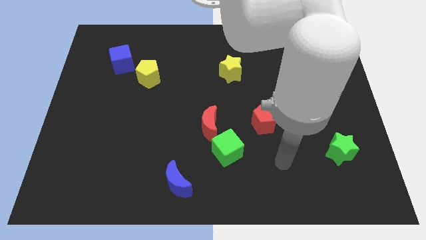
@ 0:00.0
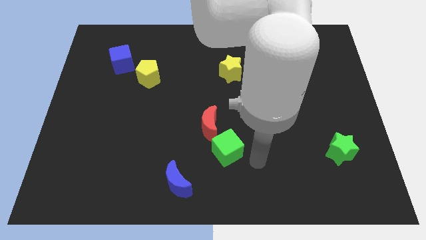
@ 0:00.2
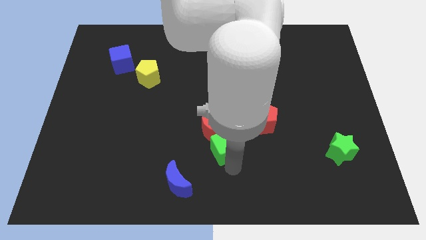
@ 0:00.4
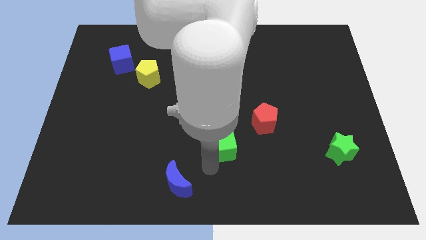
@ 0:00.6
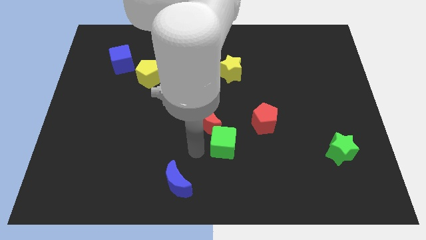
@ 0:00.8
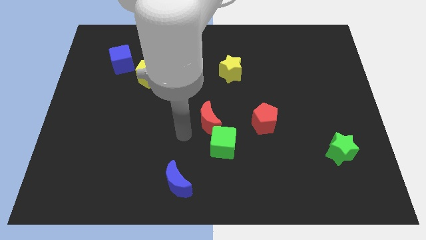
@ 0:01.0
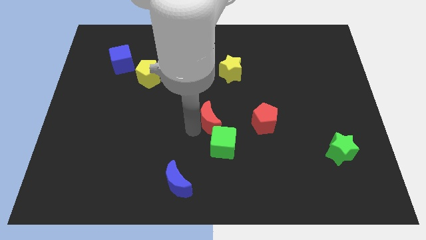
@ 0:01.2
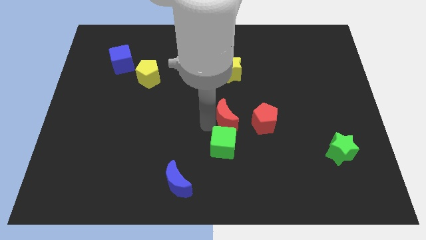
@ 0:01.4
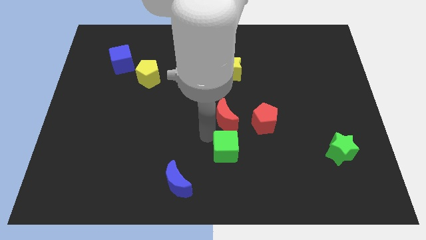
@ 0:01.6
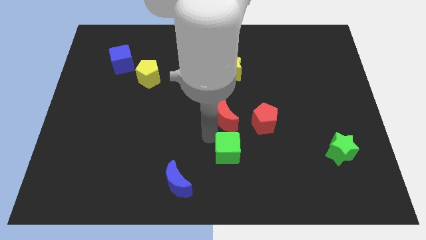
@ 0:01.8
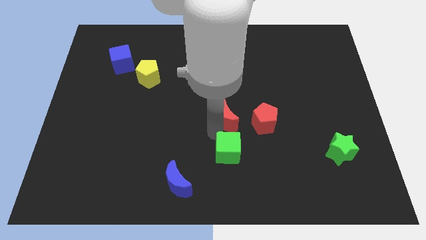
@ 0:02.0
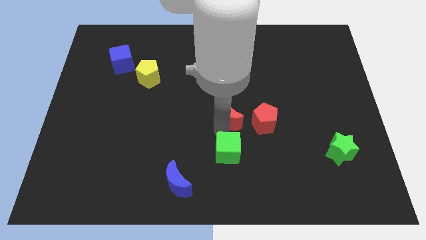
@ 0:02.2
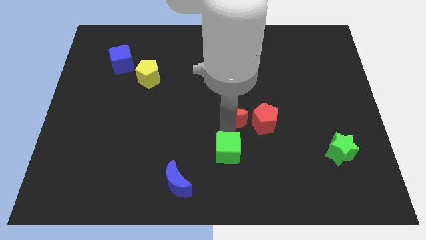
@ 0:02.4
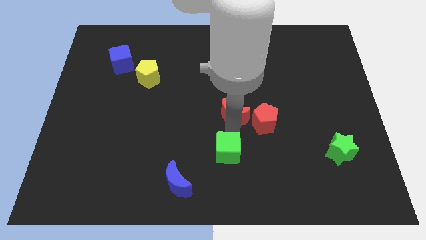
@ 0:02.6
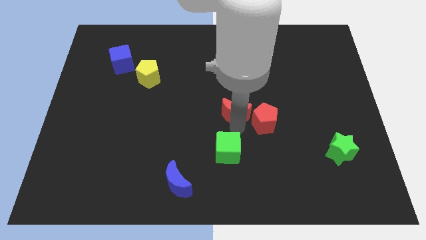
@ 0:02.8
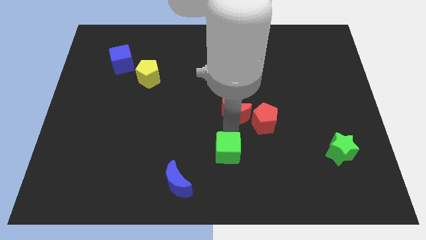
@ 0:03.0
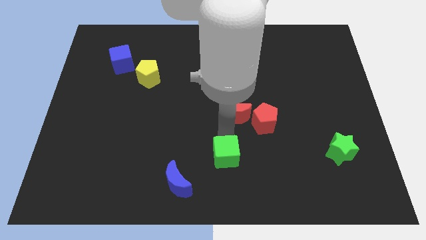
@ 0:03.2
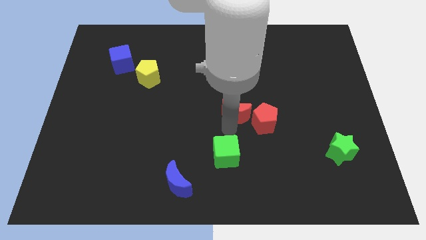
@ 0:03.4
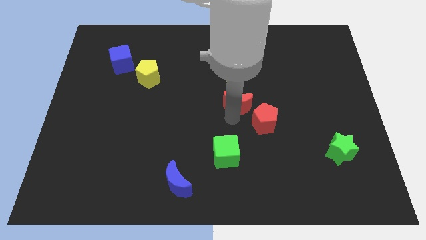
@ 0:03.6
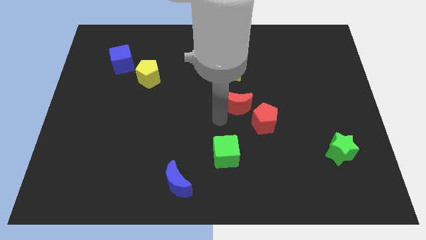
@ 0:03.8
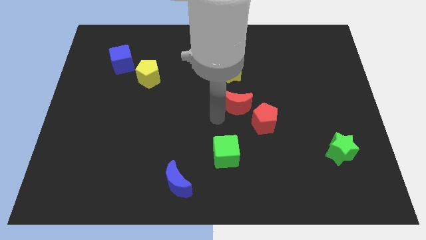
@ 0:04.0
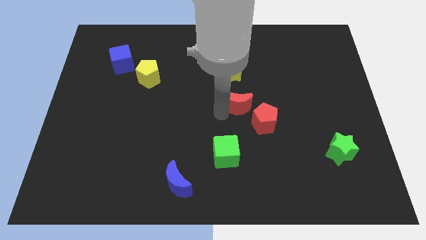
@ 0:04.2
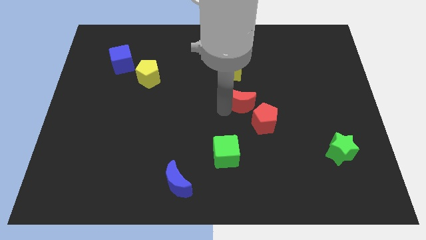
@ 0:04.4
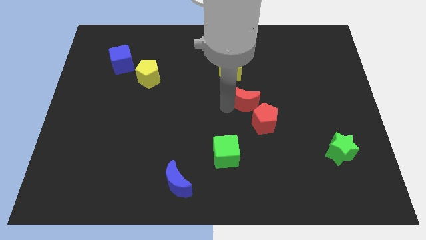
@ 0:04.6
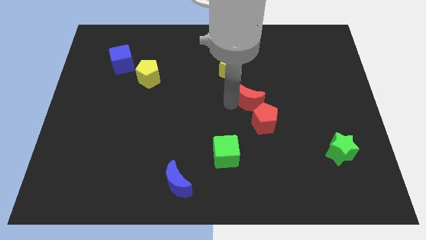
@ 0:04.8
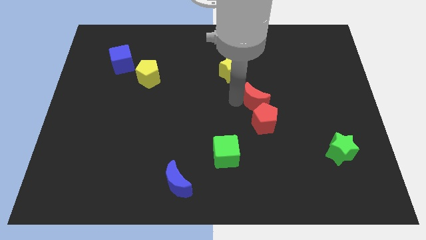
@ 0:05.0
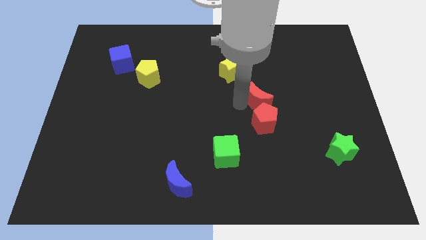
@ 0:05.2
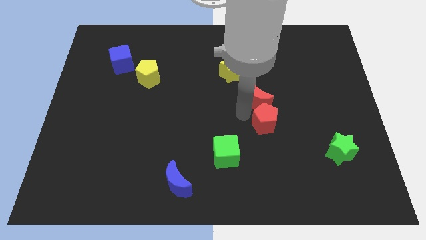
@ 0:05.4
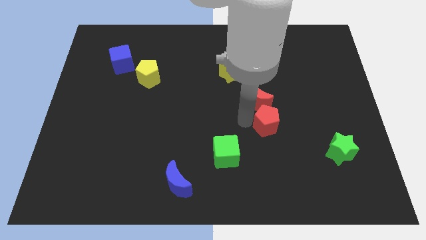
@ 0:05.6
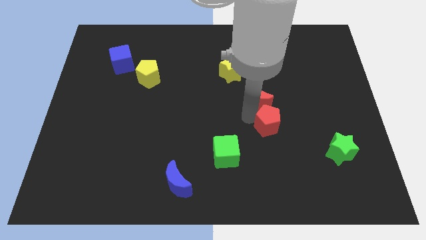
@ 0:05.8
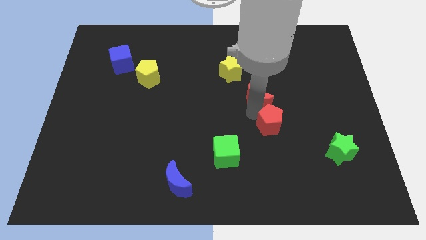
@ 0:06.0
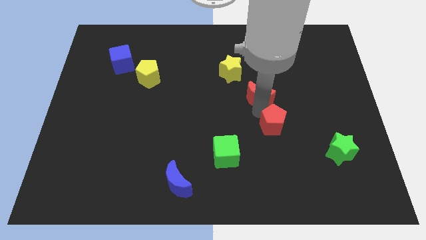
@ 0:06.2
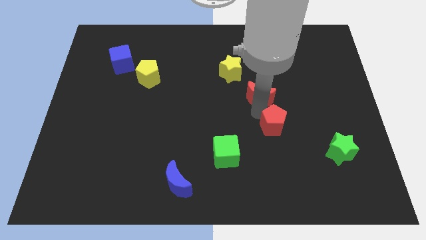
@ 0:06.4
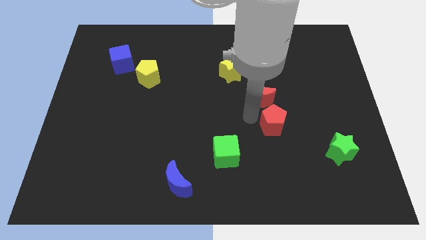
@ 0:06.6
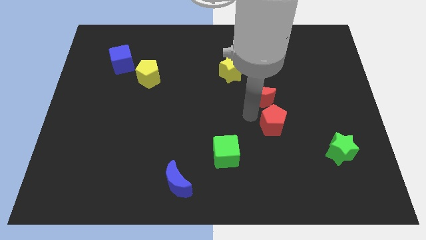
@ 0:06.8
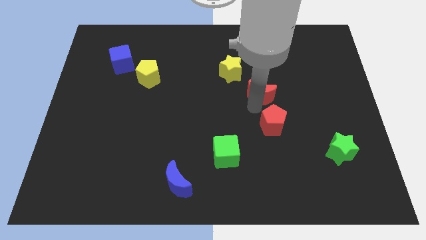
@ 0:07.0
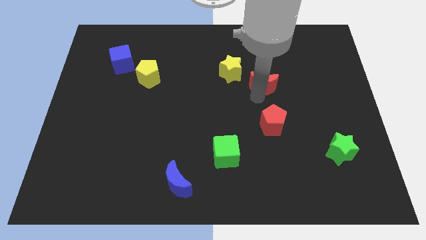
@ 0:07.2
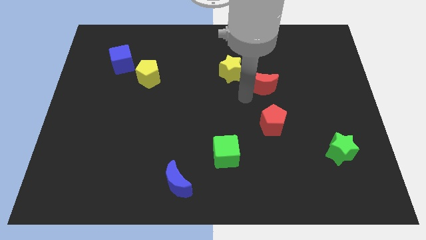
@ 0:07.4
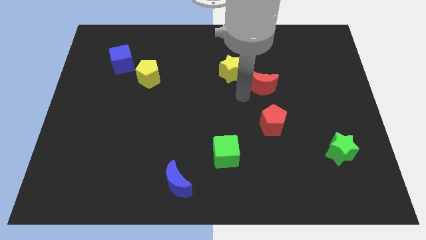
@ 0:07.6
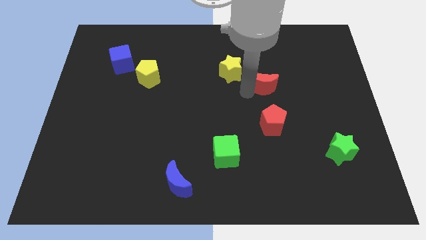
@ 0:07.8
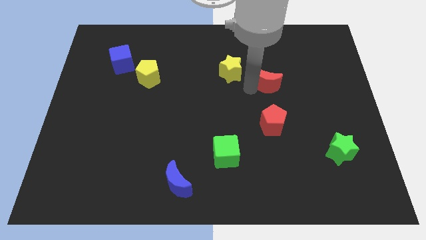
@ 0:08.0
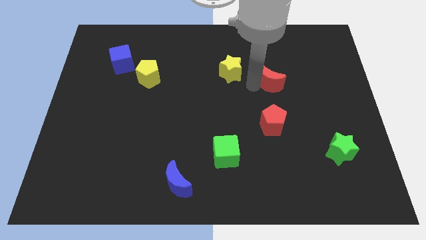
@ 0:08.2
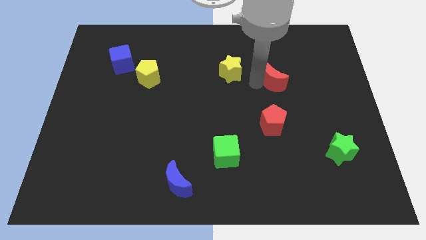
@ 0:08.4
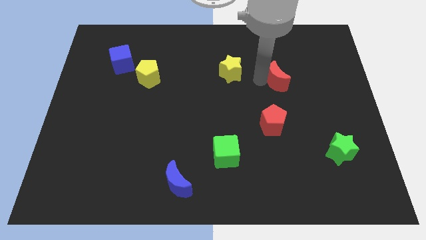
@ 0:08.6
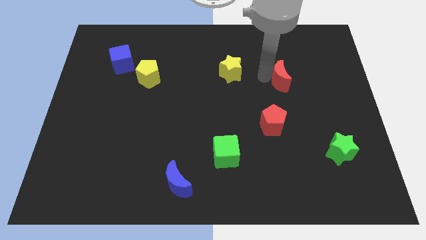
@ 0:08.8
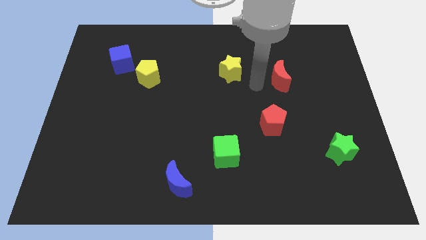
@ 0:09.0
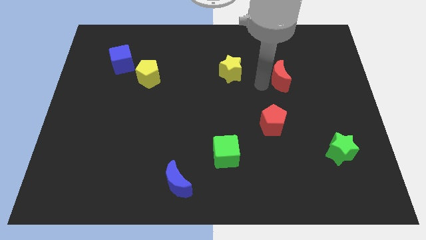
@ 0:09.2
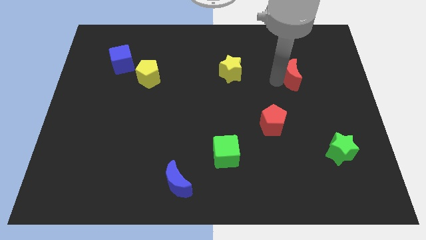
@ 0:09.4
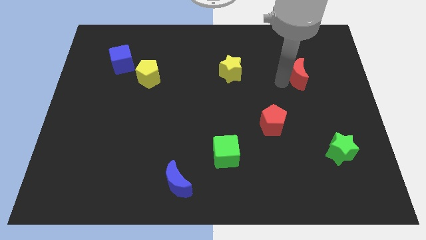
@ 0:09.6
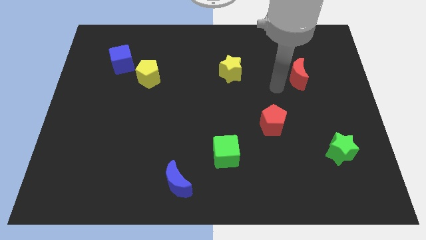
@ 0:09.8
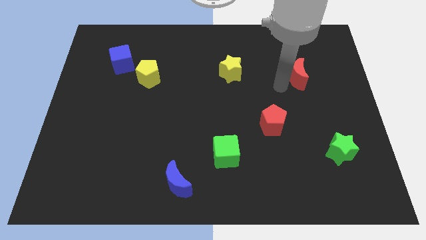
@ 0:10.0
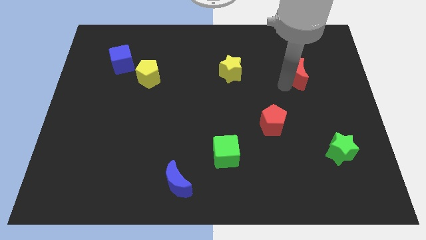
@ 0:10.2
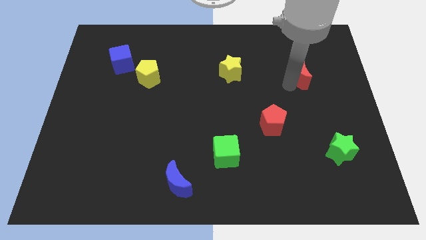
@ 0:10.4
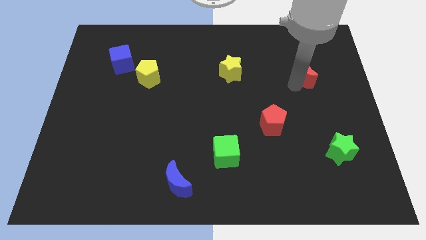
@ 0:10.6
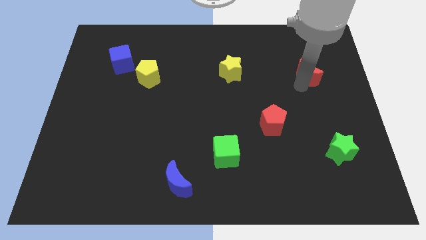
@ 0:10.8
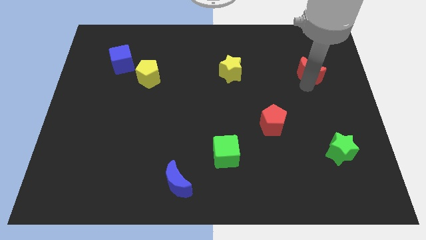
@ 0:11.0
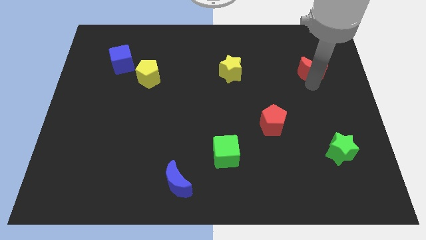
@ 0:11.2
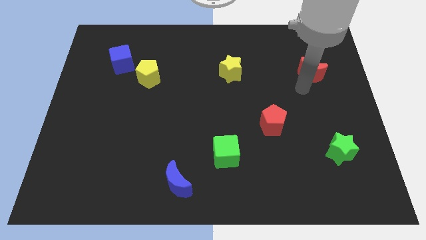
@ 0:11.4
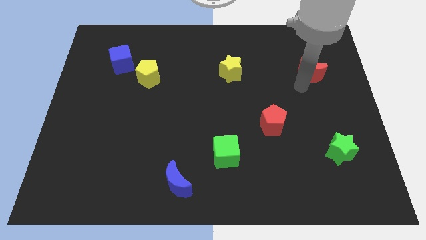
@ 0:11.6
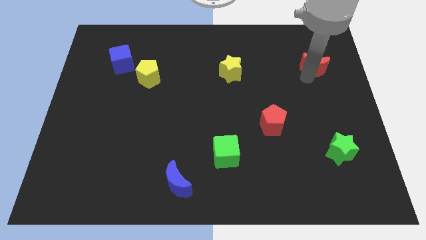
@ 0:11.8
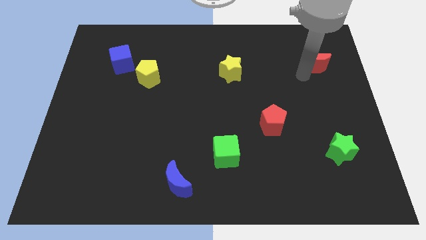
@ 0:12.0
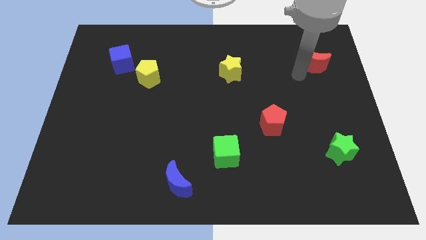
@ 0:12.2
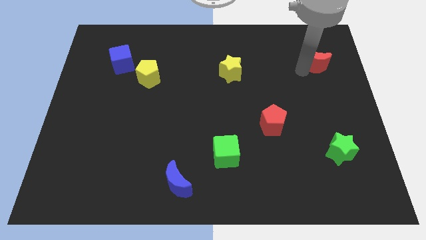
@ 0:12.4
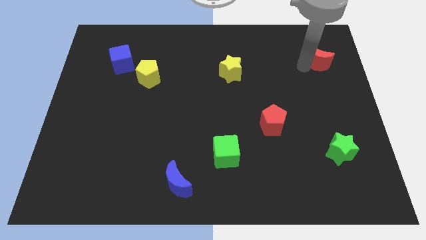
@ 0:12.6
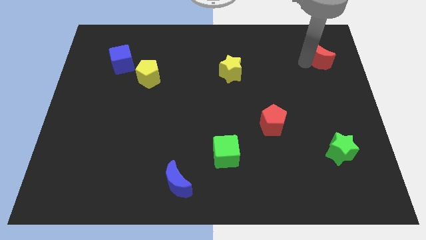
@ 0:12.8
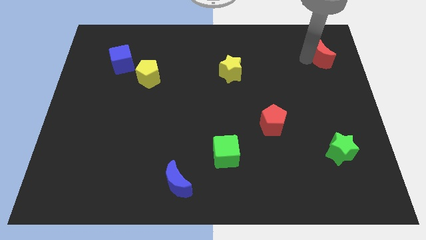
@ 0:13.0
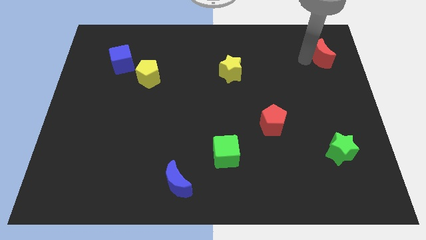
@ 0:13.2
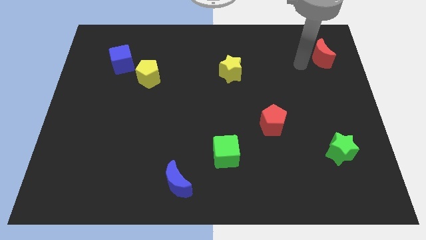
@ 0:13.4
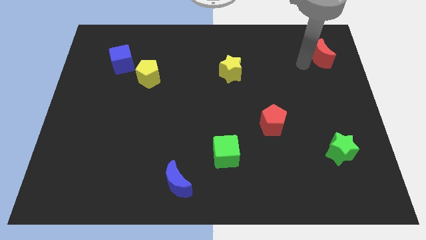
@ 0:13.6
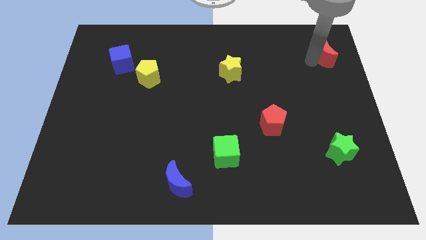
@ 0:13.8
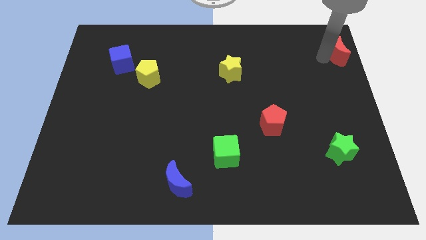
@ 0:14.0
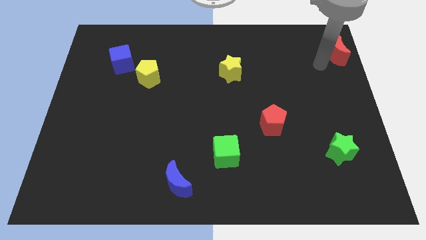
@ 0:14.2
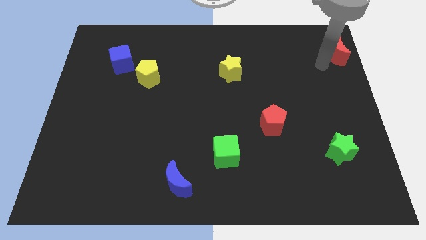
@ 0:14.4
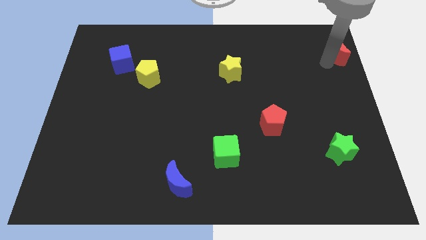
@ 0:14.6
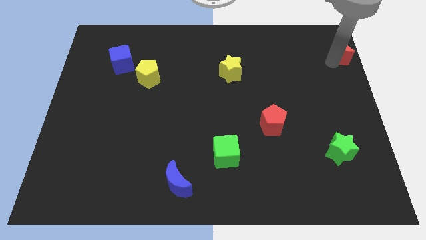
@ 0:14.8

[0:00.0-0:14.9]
put the red moon to the top right
